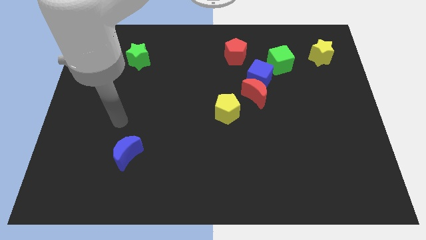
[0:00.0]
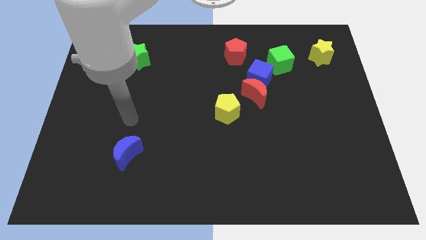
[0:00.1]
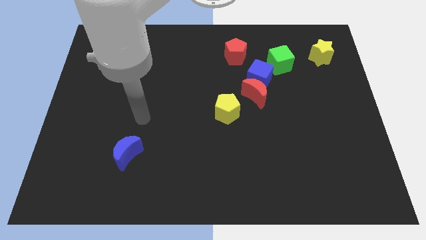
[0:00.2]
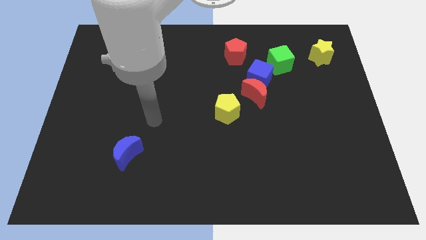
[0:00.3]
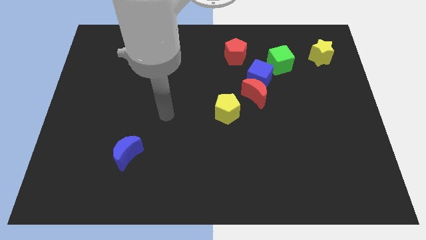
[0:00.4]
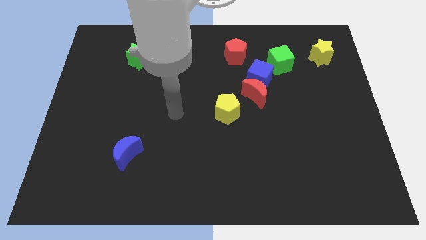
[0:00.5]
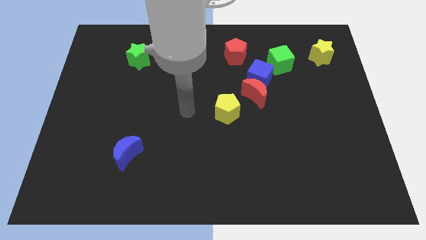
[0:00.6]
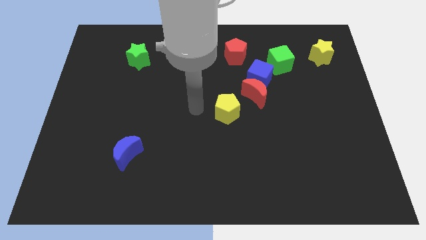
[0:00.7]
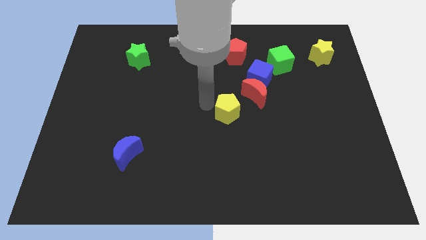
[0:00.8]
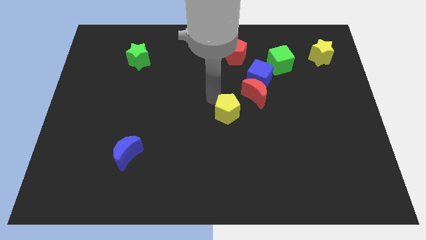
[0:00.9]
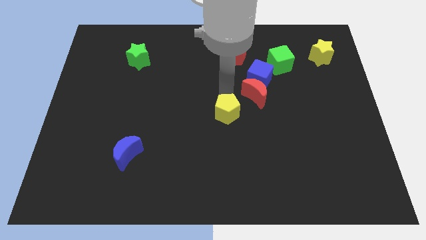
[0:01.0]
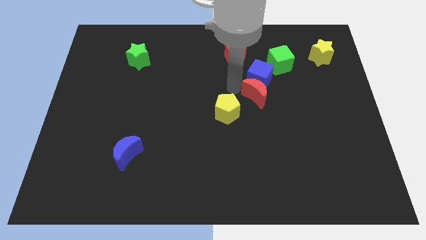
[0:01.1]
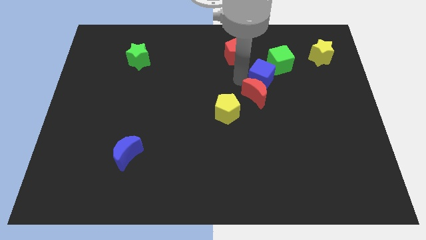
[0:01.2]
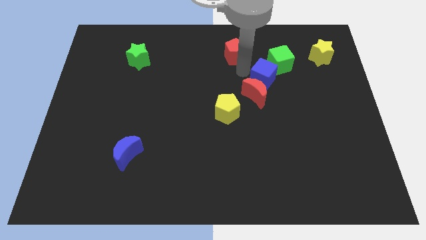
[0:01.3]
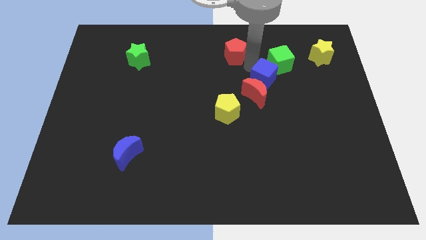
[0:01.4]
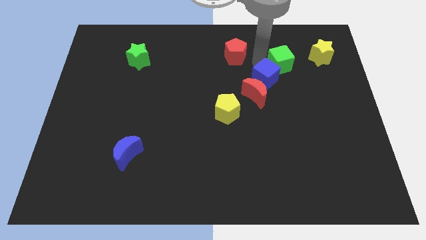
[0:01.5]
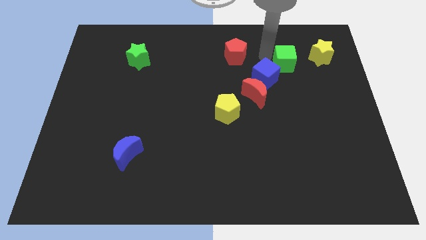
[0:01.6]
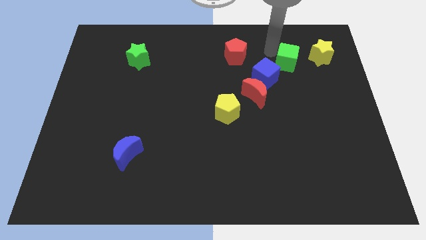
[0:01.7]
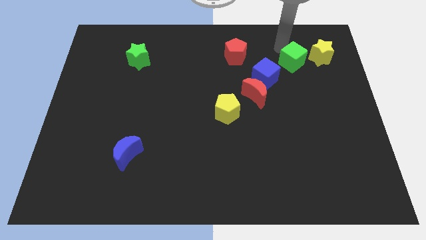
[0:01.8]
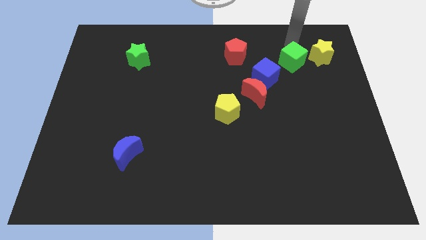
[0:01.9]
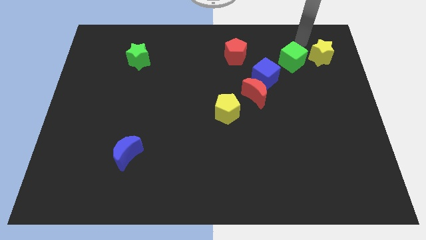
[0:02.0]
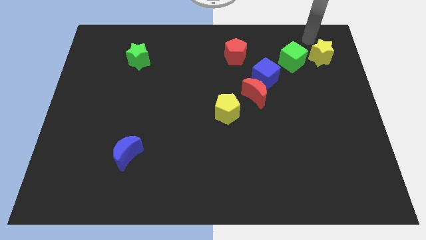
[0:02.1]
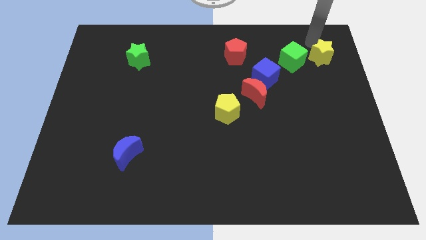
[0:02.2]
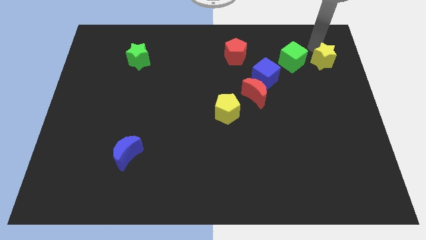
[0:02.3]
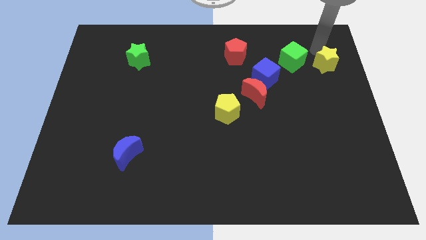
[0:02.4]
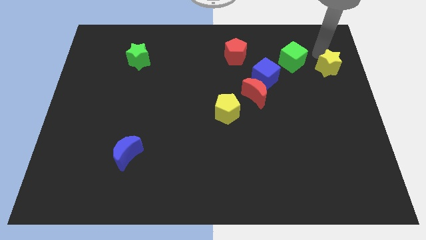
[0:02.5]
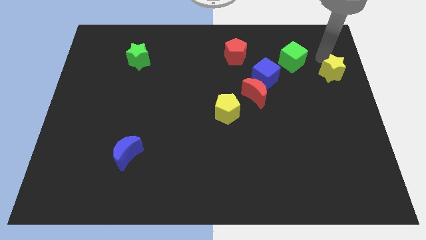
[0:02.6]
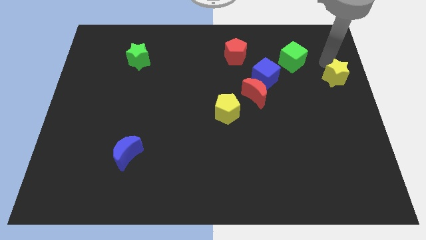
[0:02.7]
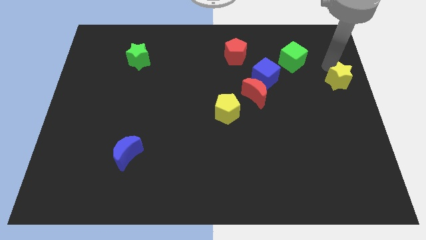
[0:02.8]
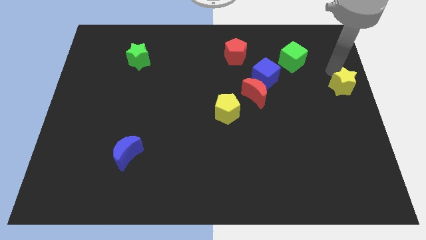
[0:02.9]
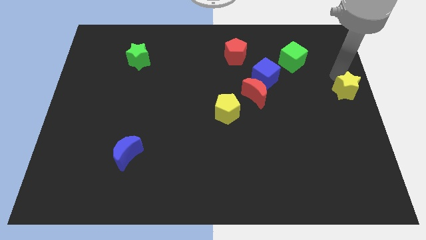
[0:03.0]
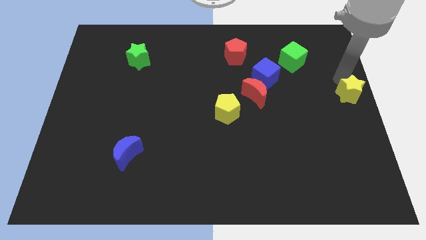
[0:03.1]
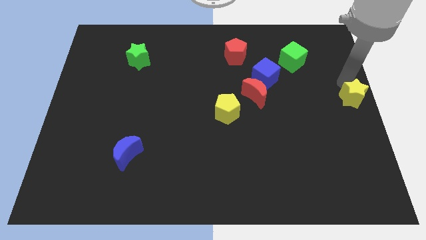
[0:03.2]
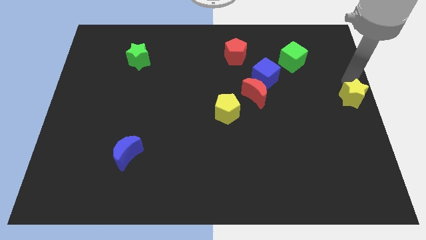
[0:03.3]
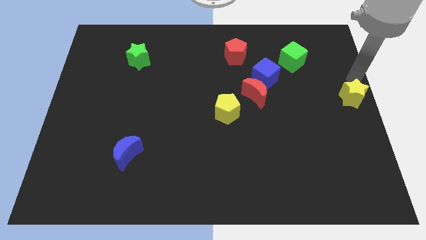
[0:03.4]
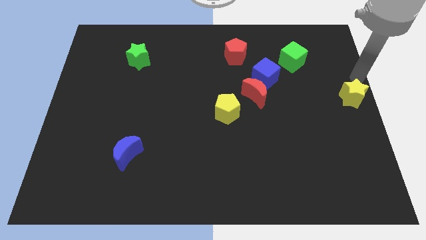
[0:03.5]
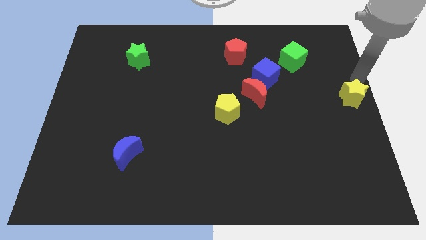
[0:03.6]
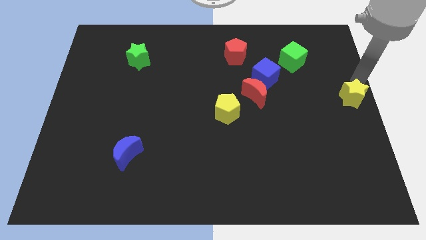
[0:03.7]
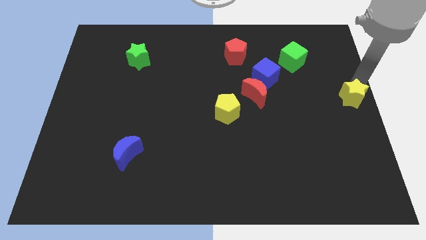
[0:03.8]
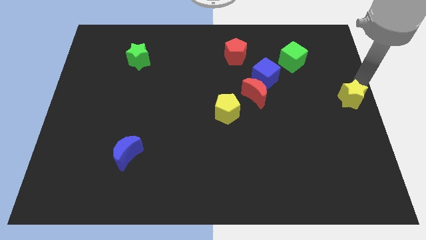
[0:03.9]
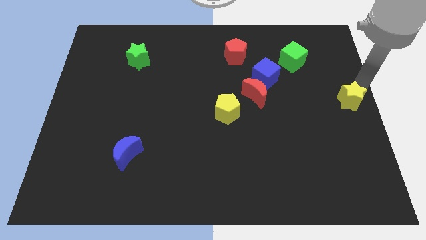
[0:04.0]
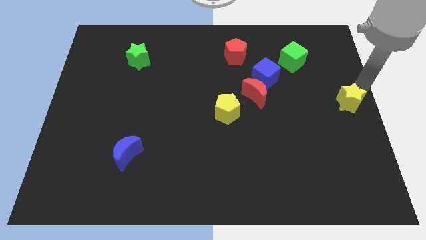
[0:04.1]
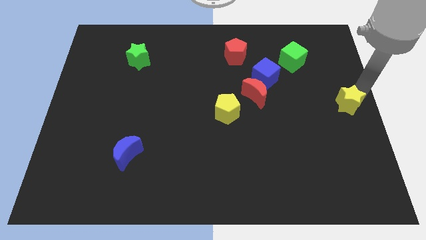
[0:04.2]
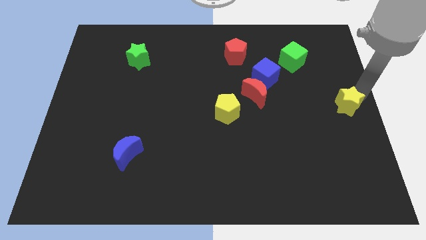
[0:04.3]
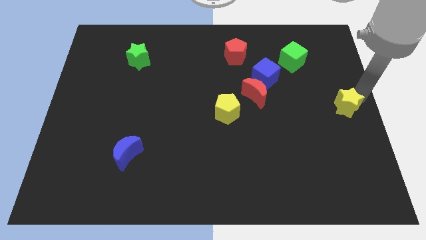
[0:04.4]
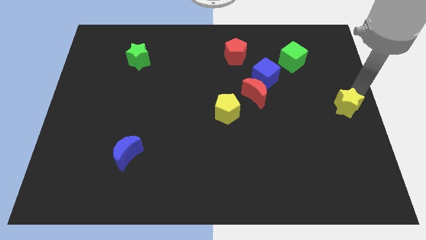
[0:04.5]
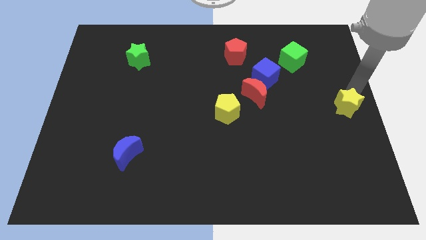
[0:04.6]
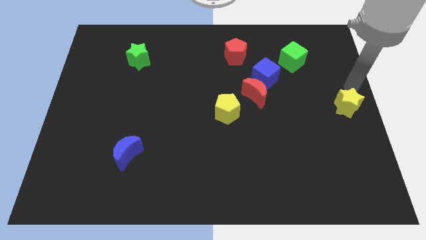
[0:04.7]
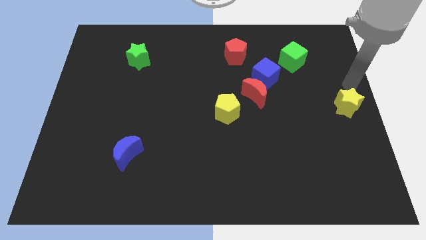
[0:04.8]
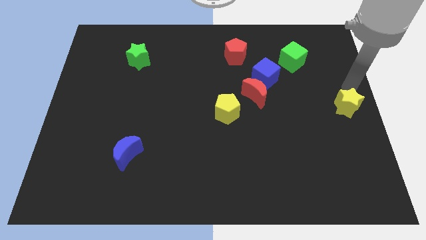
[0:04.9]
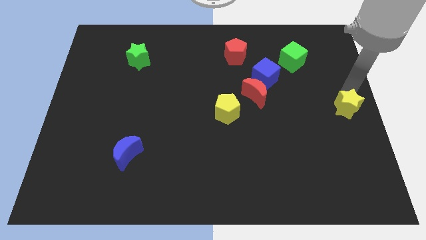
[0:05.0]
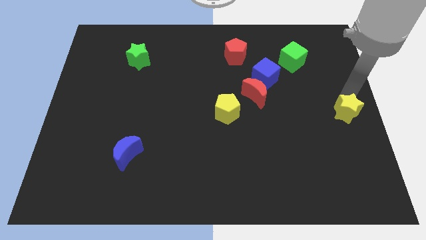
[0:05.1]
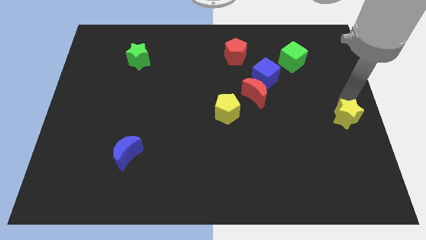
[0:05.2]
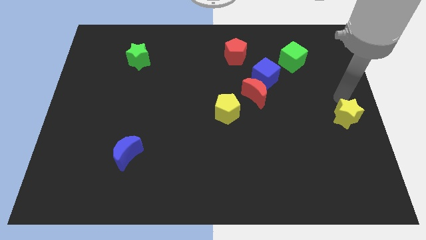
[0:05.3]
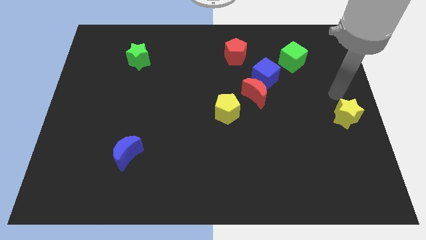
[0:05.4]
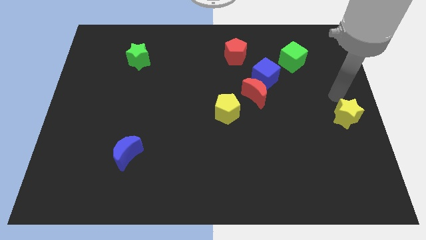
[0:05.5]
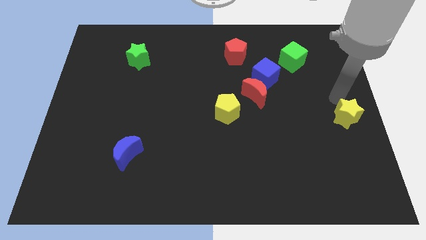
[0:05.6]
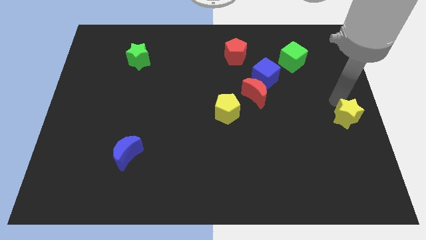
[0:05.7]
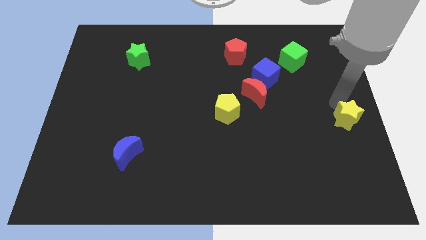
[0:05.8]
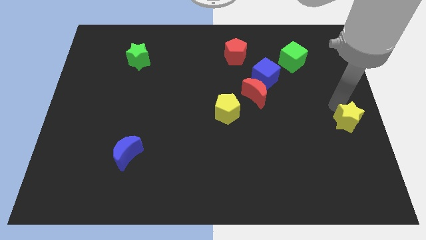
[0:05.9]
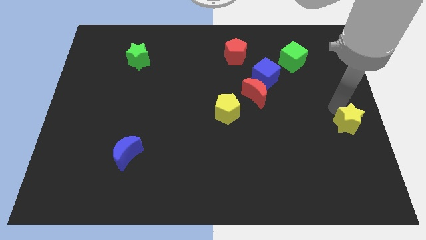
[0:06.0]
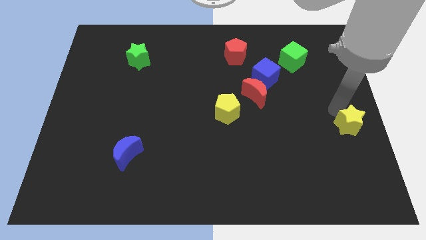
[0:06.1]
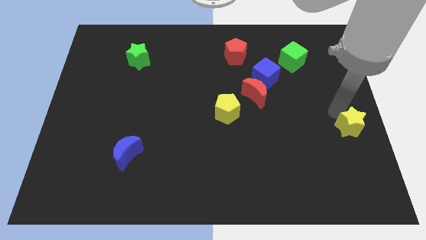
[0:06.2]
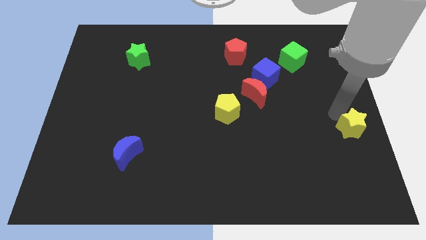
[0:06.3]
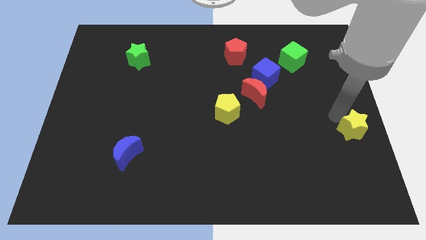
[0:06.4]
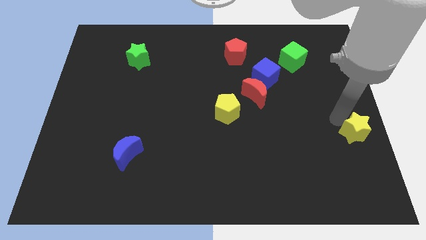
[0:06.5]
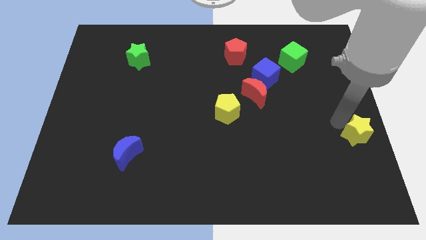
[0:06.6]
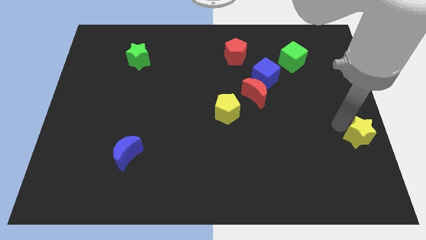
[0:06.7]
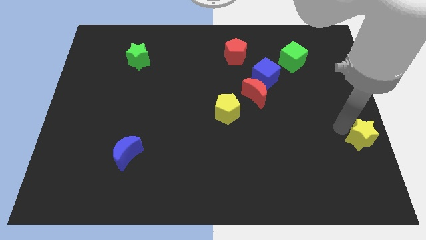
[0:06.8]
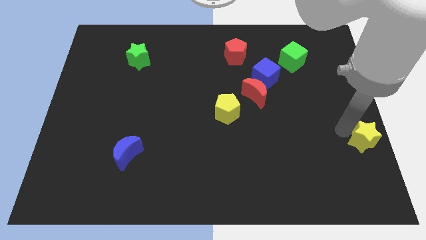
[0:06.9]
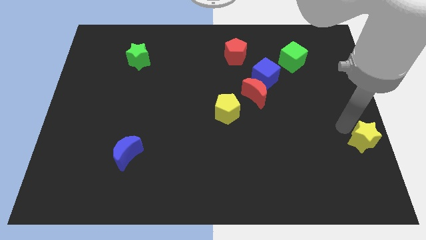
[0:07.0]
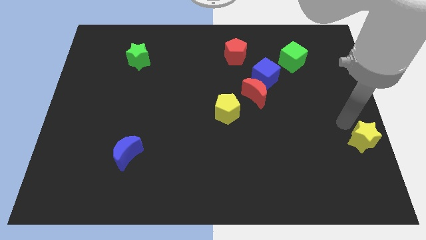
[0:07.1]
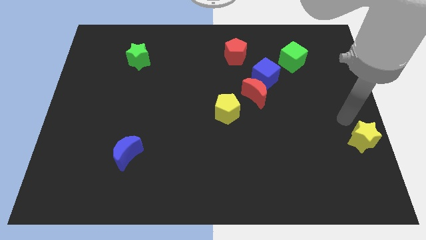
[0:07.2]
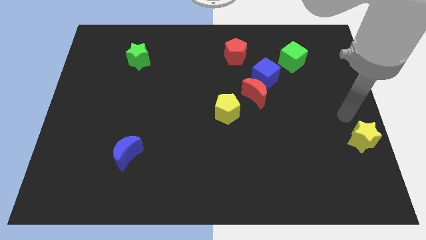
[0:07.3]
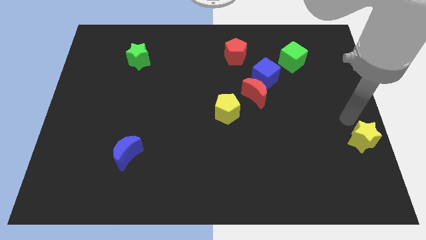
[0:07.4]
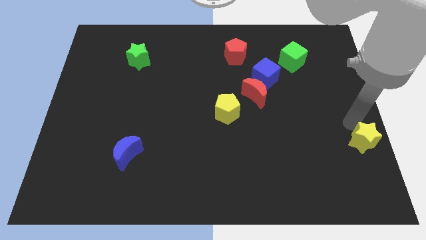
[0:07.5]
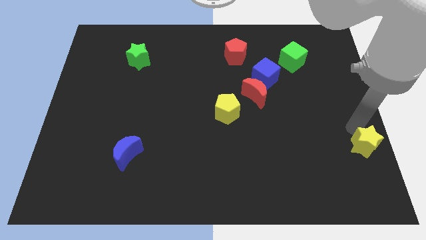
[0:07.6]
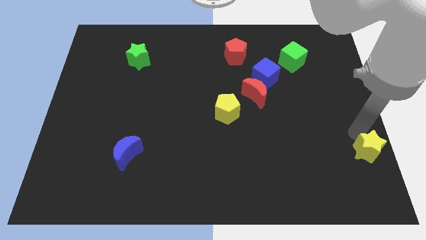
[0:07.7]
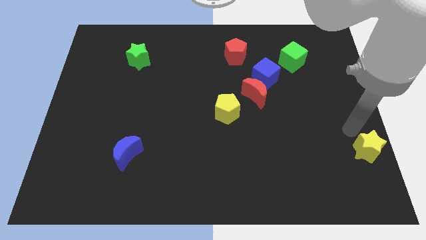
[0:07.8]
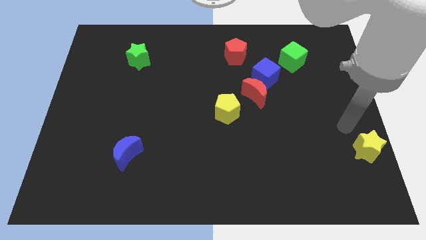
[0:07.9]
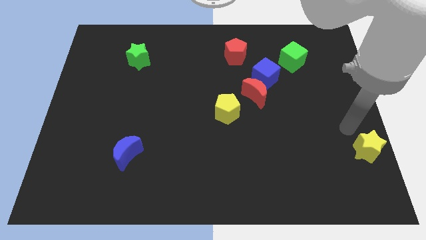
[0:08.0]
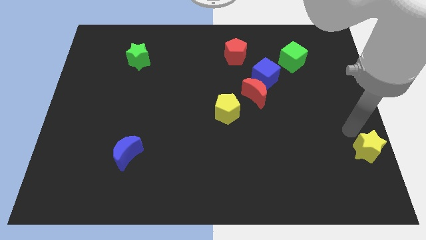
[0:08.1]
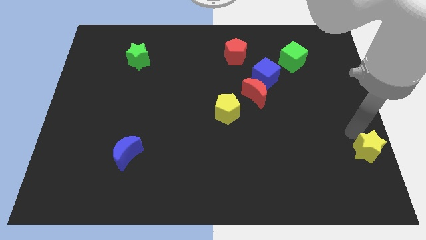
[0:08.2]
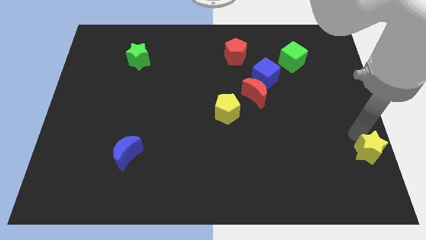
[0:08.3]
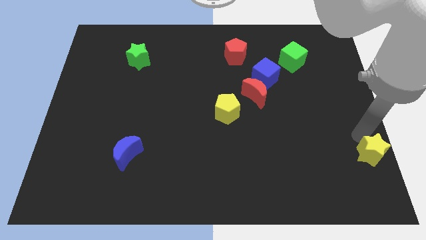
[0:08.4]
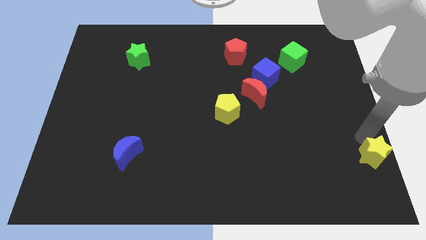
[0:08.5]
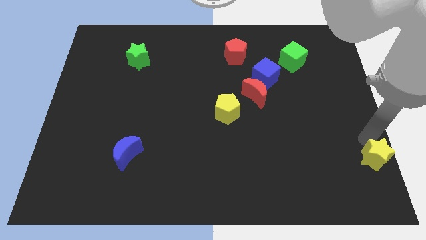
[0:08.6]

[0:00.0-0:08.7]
move the yellow star to the bottom right
